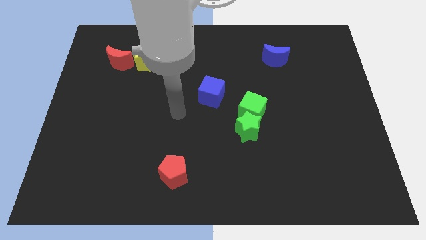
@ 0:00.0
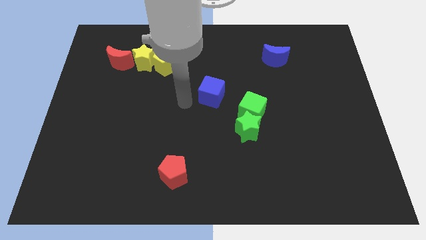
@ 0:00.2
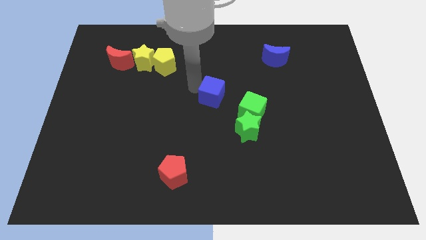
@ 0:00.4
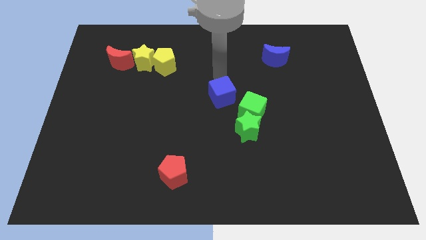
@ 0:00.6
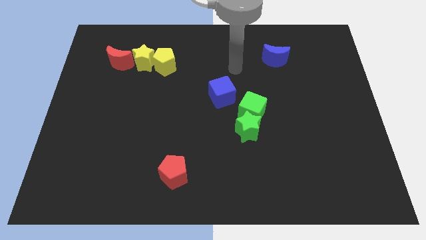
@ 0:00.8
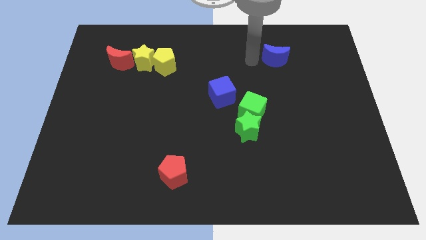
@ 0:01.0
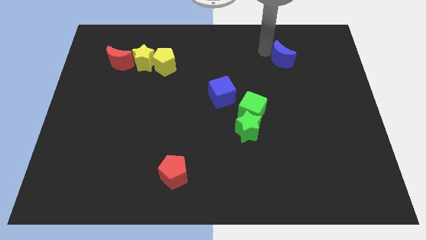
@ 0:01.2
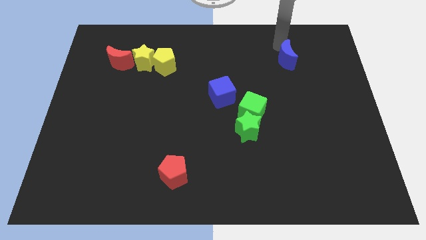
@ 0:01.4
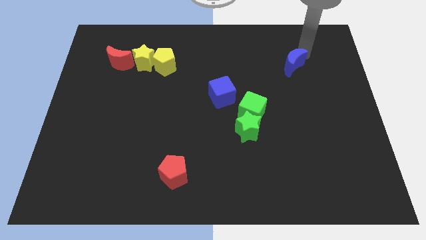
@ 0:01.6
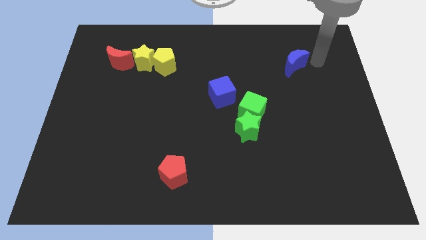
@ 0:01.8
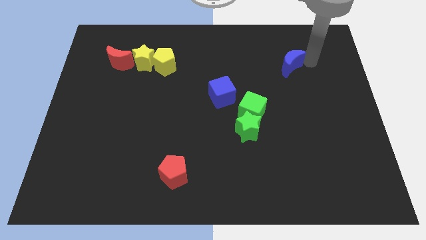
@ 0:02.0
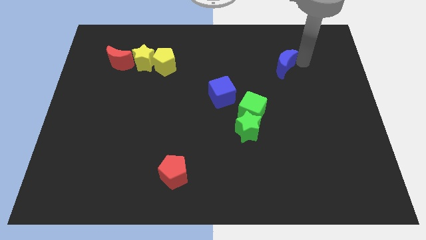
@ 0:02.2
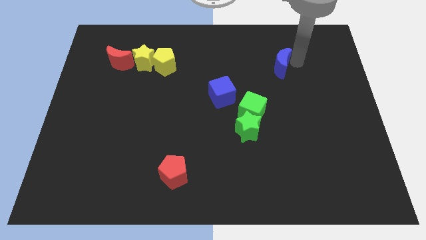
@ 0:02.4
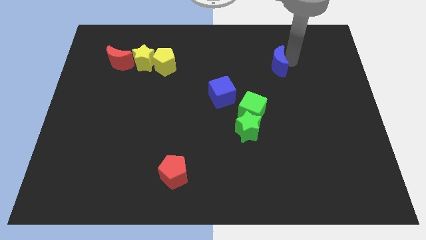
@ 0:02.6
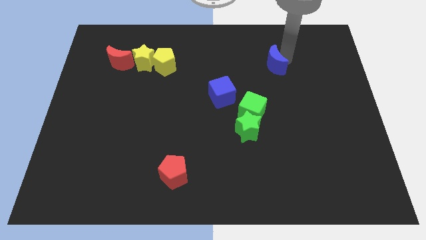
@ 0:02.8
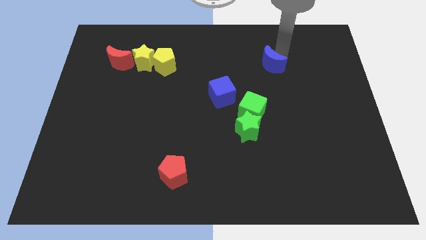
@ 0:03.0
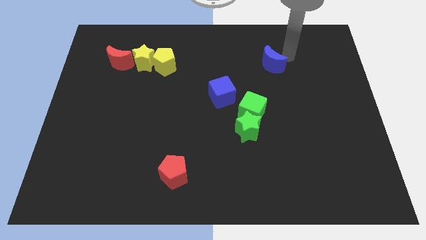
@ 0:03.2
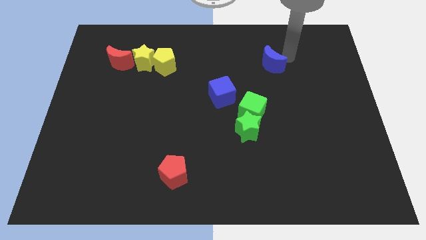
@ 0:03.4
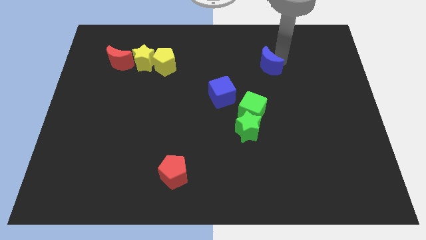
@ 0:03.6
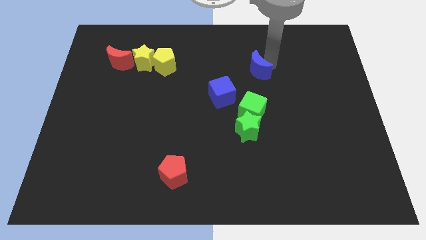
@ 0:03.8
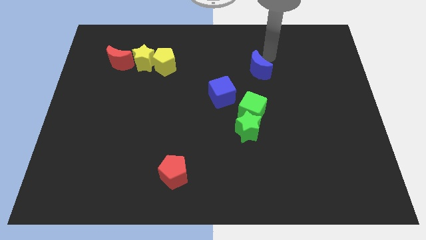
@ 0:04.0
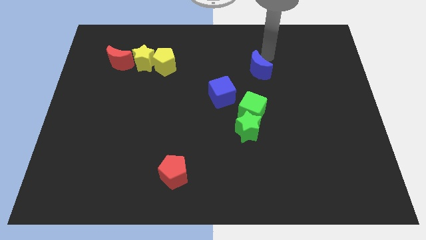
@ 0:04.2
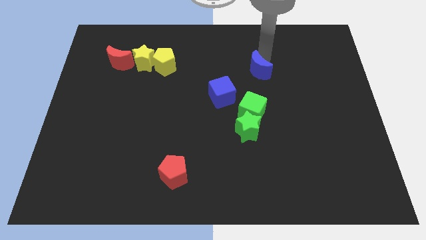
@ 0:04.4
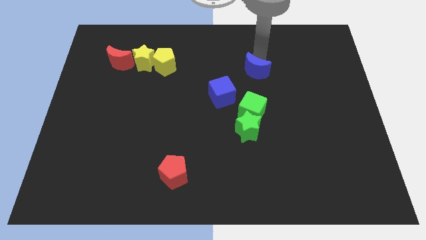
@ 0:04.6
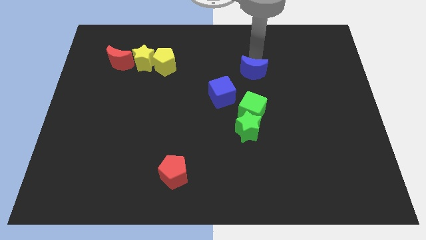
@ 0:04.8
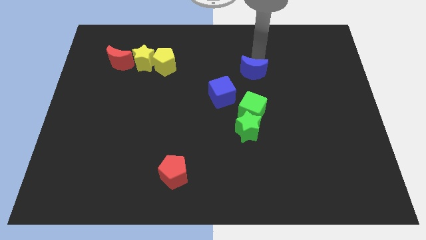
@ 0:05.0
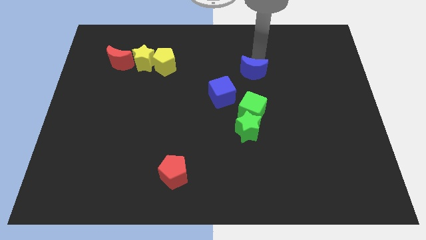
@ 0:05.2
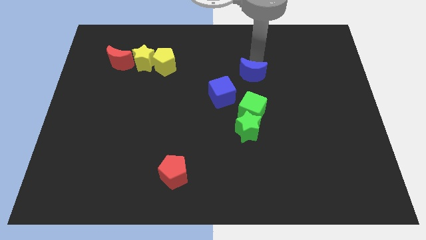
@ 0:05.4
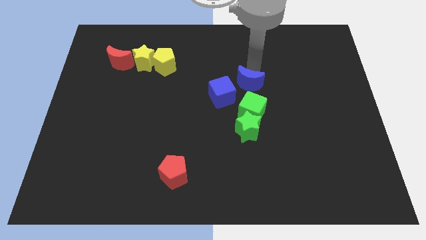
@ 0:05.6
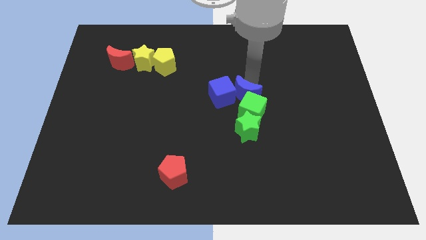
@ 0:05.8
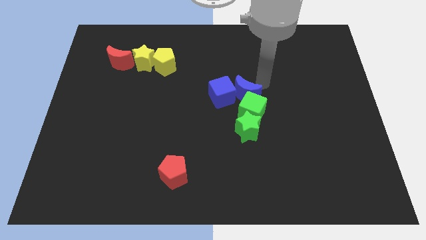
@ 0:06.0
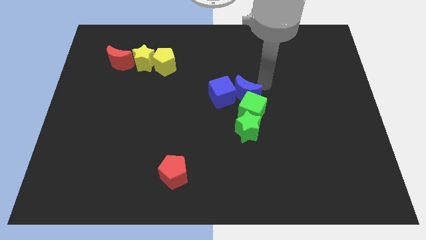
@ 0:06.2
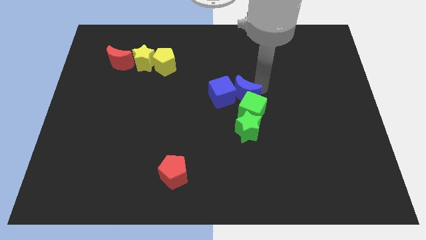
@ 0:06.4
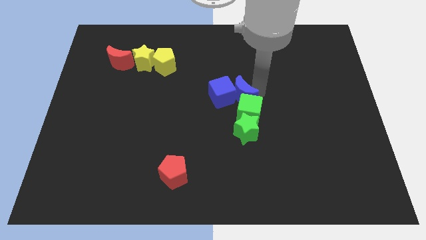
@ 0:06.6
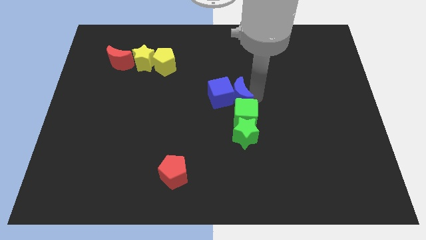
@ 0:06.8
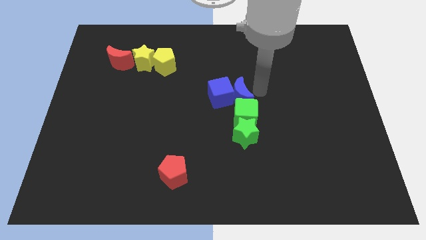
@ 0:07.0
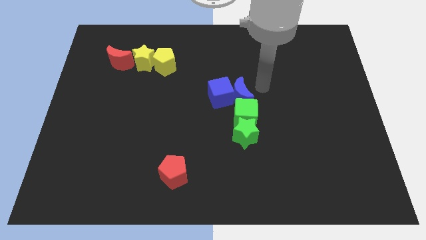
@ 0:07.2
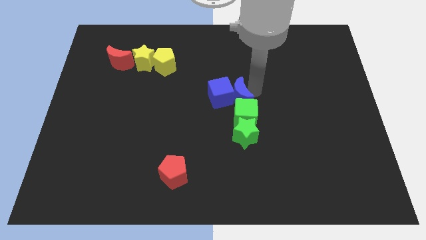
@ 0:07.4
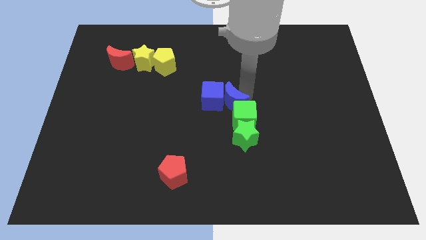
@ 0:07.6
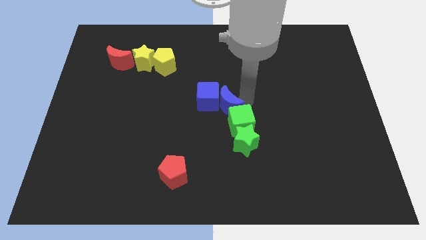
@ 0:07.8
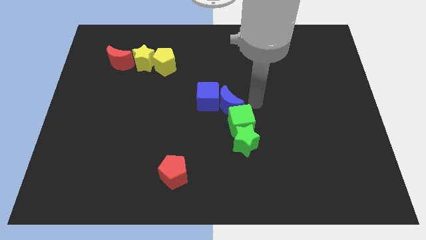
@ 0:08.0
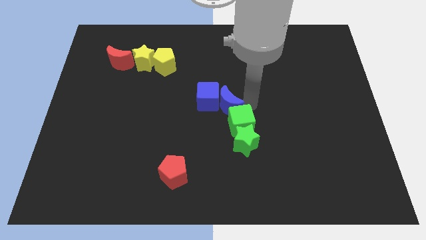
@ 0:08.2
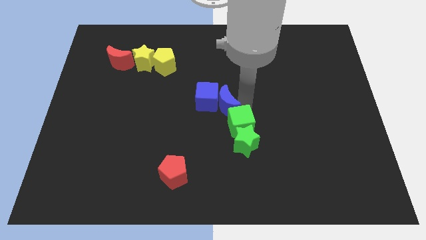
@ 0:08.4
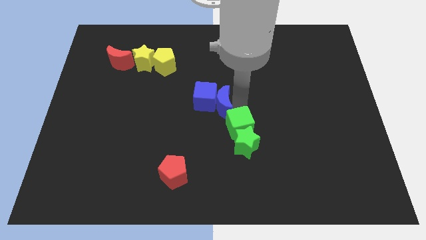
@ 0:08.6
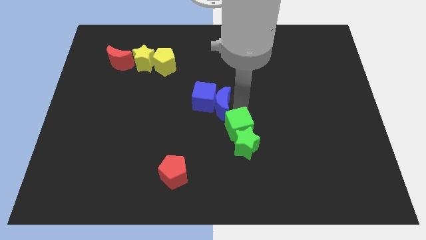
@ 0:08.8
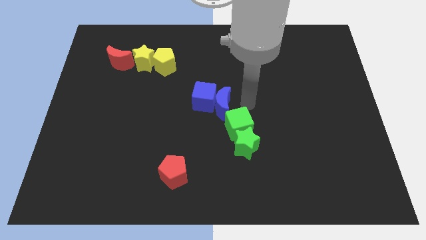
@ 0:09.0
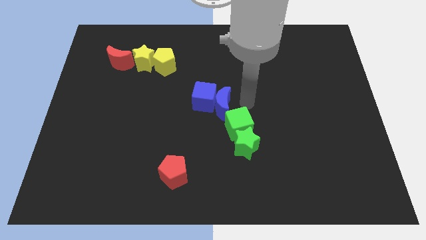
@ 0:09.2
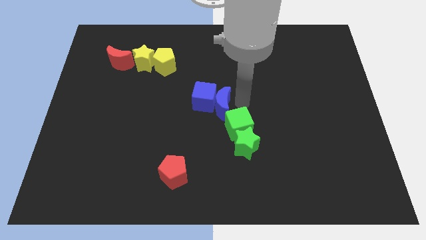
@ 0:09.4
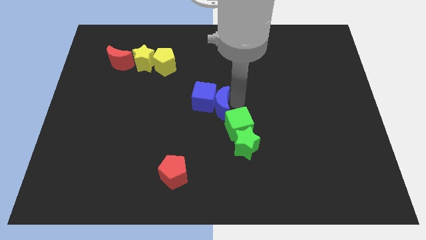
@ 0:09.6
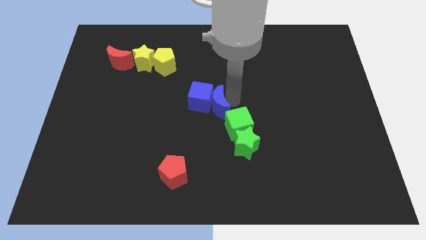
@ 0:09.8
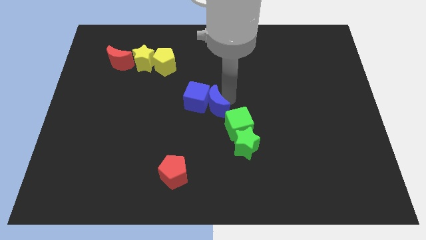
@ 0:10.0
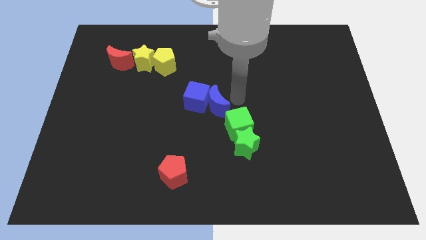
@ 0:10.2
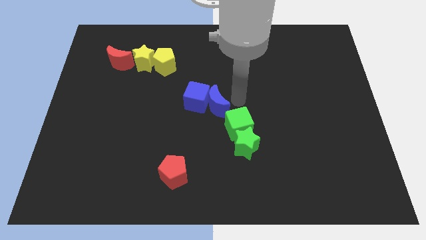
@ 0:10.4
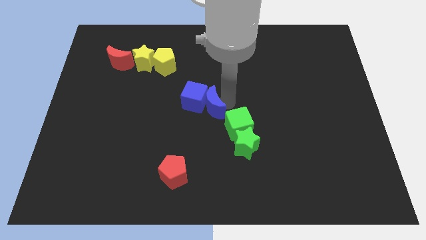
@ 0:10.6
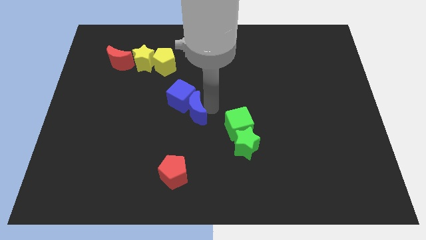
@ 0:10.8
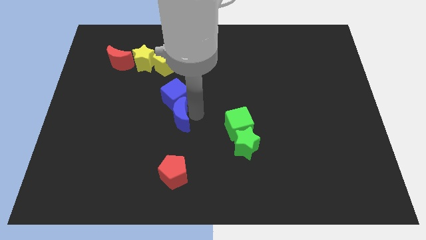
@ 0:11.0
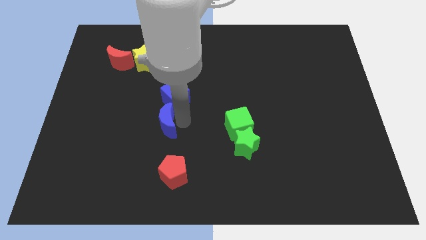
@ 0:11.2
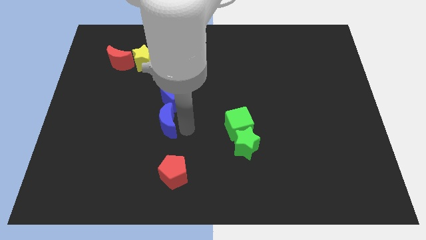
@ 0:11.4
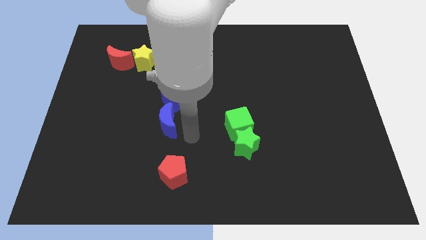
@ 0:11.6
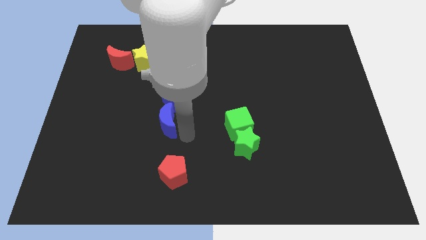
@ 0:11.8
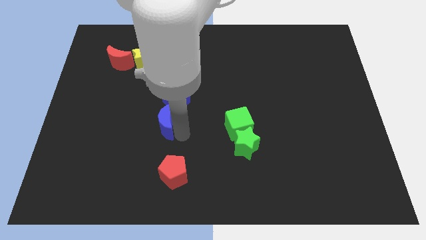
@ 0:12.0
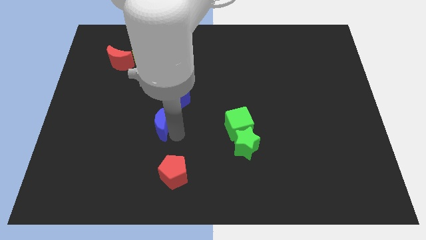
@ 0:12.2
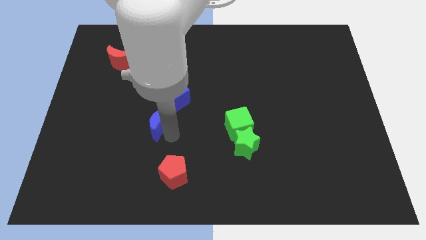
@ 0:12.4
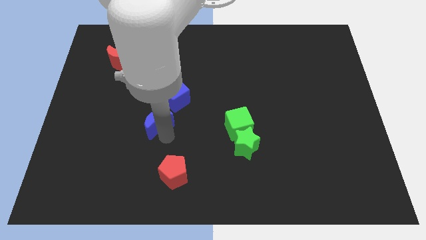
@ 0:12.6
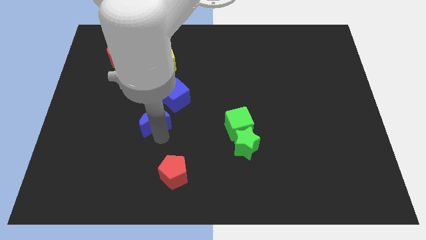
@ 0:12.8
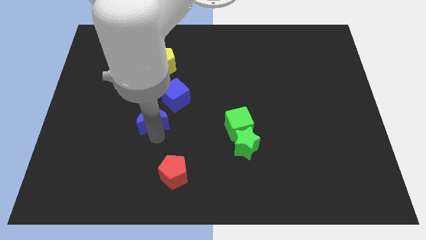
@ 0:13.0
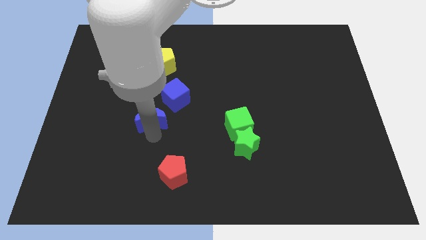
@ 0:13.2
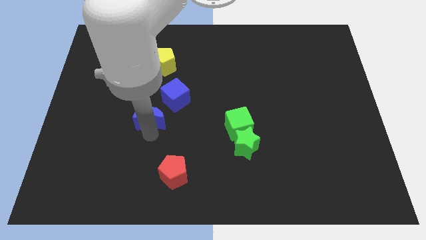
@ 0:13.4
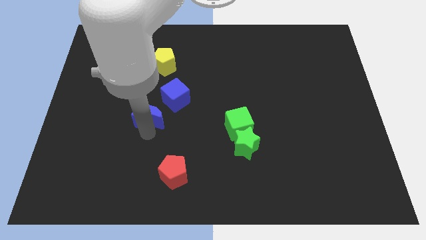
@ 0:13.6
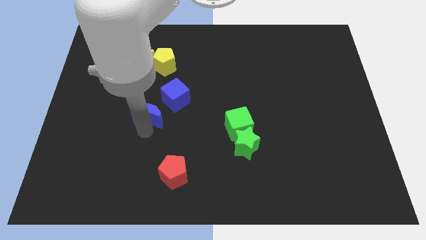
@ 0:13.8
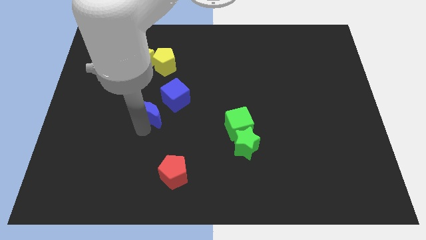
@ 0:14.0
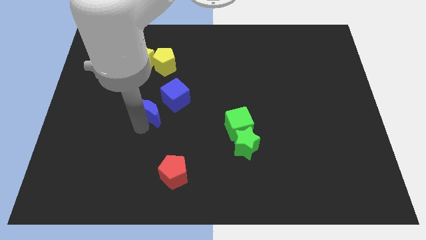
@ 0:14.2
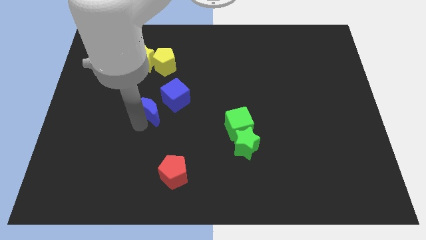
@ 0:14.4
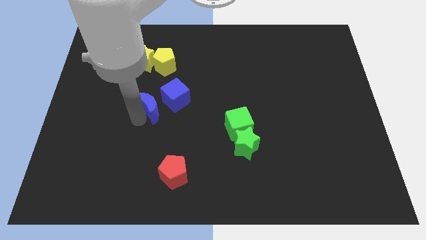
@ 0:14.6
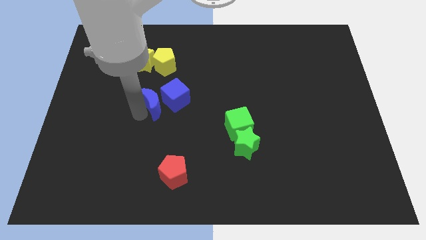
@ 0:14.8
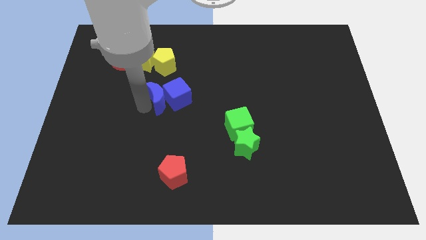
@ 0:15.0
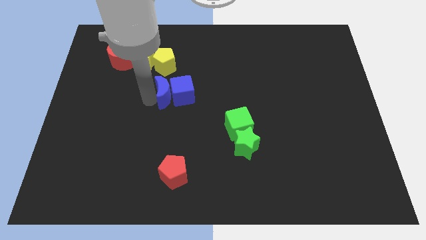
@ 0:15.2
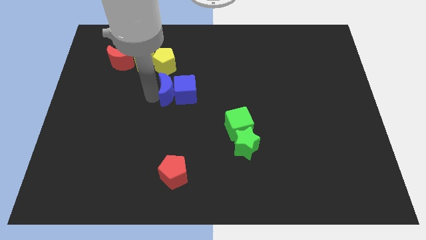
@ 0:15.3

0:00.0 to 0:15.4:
put the blue moon to the bottom left side of the blue cube
